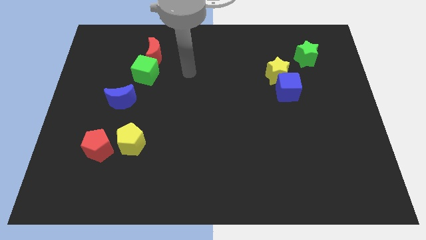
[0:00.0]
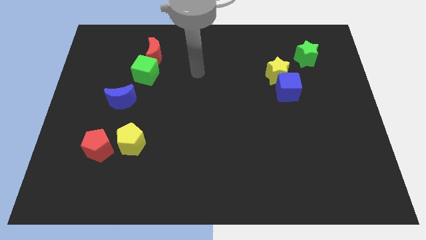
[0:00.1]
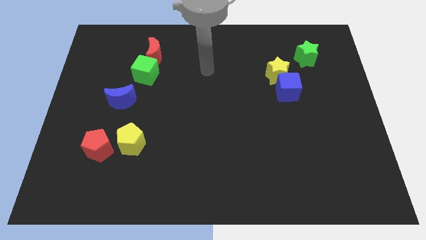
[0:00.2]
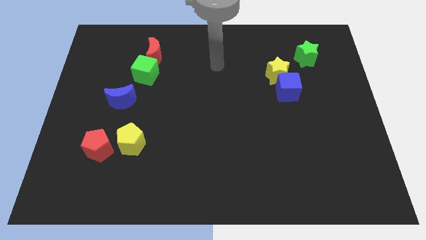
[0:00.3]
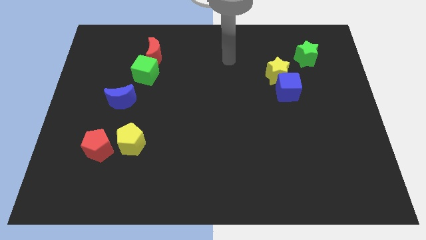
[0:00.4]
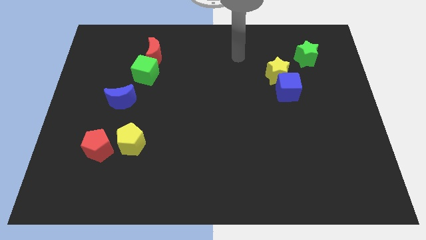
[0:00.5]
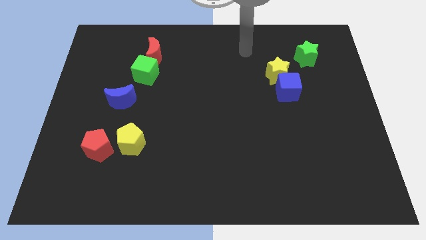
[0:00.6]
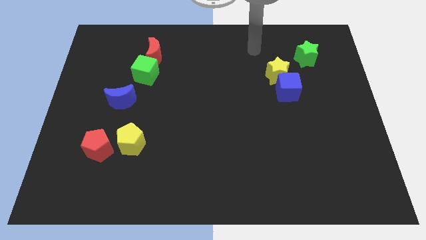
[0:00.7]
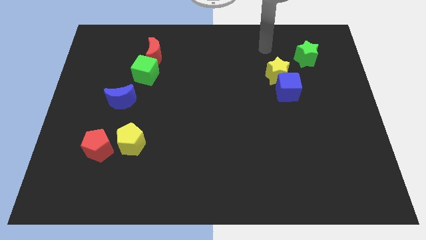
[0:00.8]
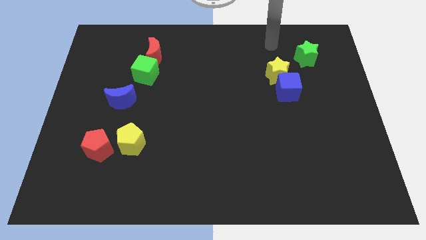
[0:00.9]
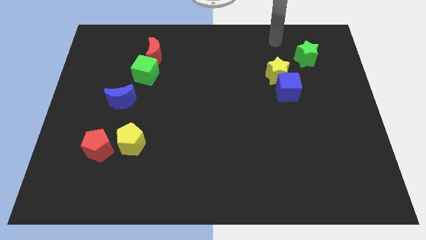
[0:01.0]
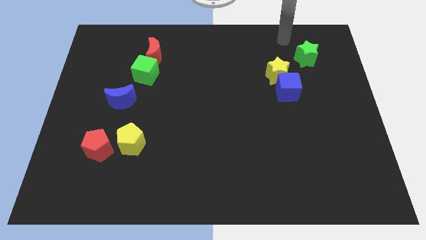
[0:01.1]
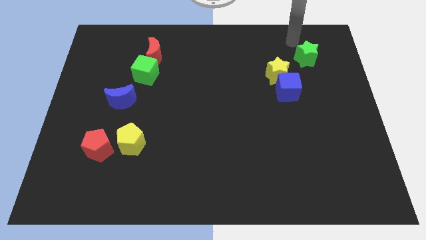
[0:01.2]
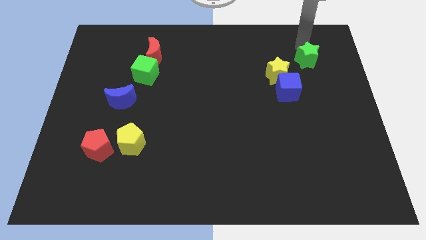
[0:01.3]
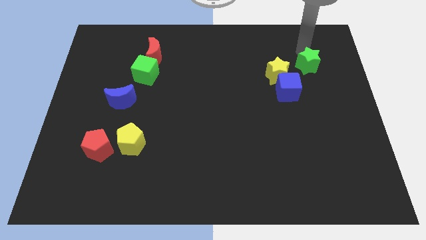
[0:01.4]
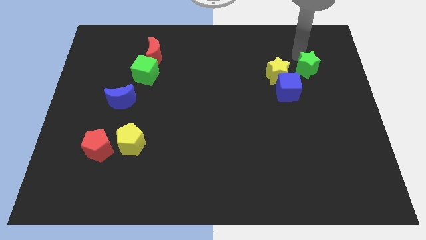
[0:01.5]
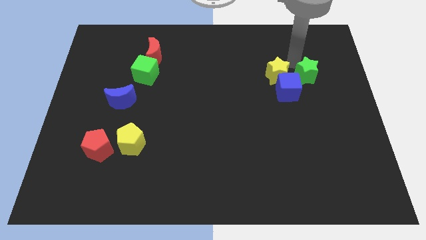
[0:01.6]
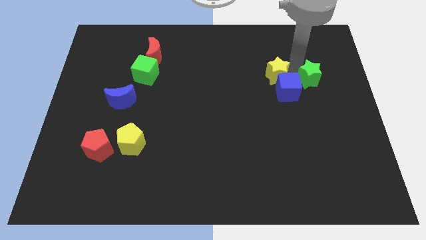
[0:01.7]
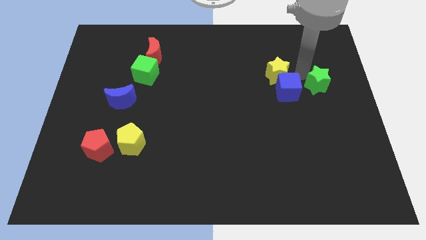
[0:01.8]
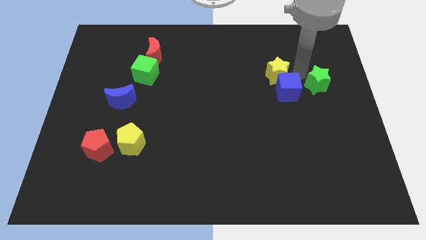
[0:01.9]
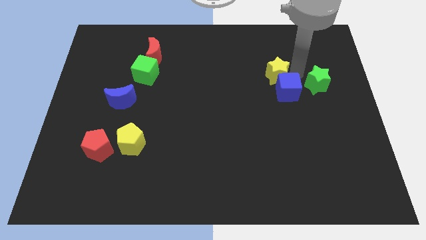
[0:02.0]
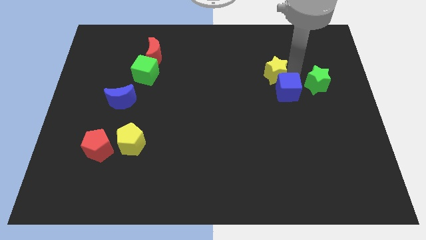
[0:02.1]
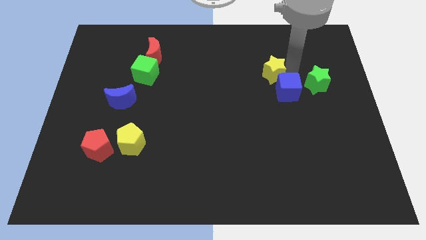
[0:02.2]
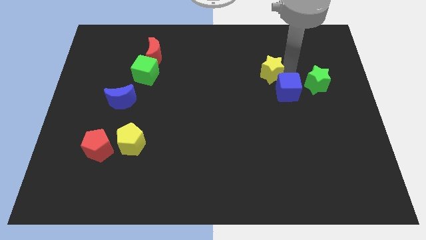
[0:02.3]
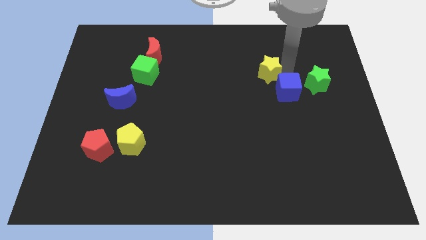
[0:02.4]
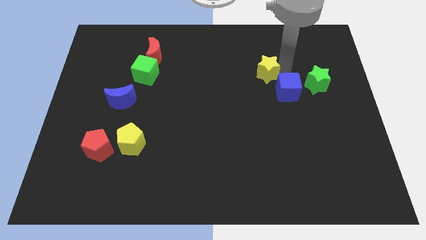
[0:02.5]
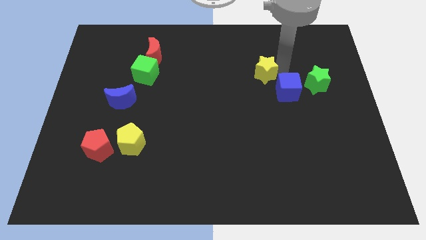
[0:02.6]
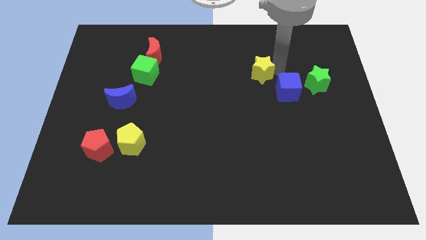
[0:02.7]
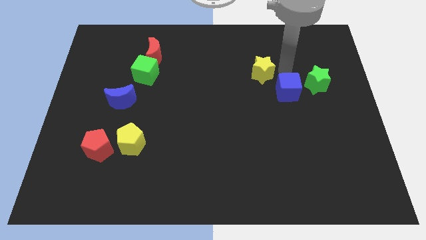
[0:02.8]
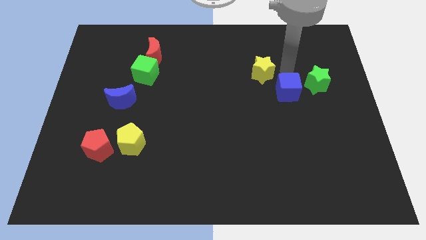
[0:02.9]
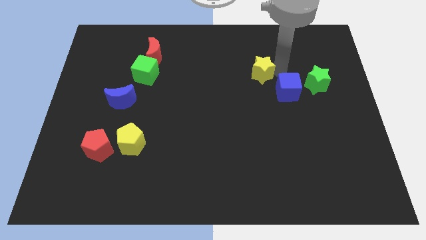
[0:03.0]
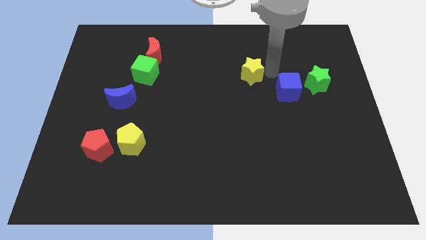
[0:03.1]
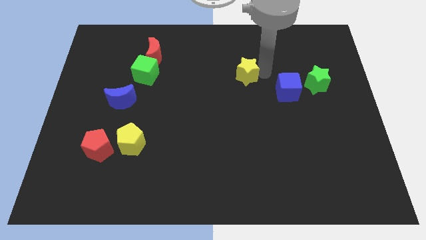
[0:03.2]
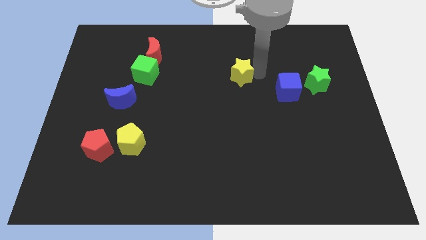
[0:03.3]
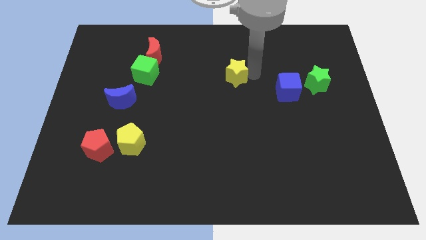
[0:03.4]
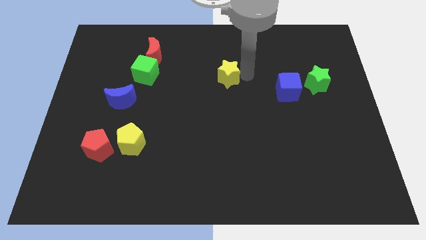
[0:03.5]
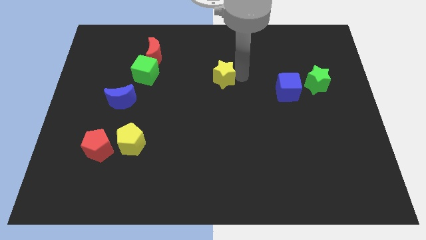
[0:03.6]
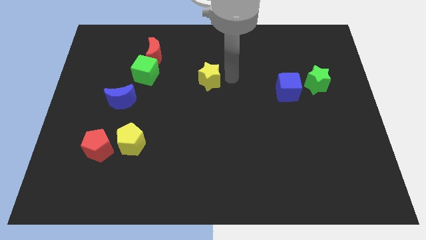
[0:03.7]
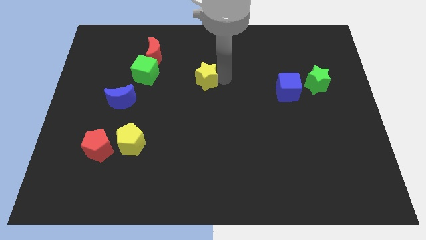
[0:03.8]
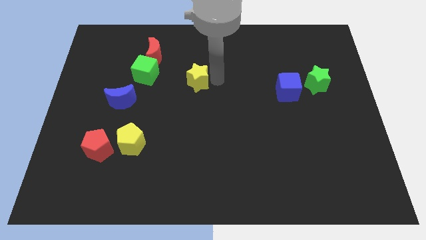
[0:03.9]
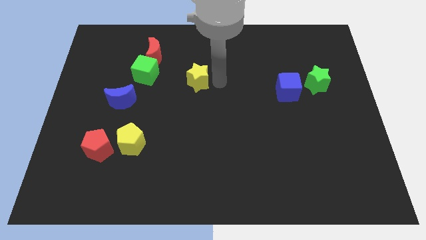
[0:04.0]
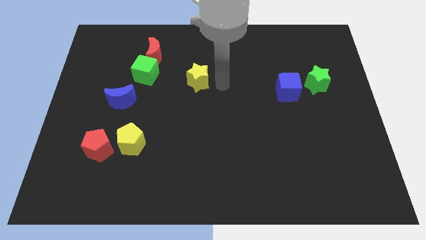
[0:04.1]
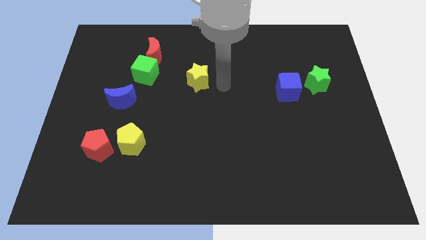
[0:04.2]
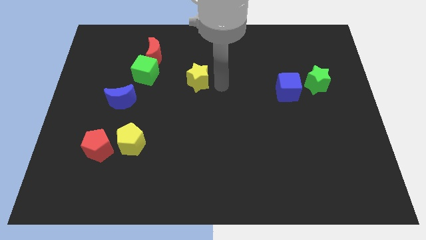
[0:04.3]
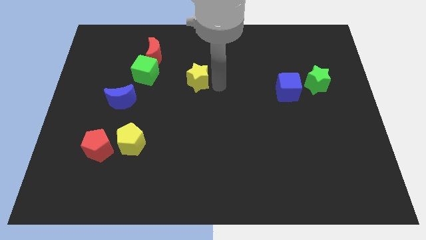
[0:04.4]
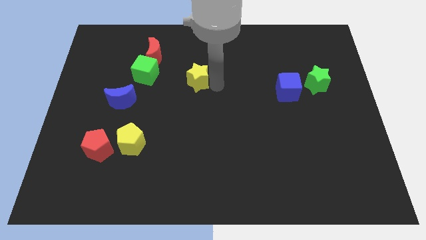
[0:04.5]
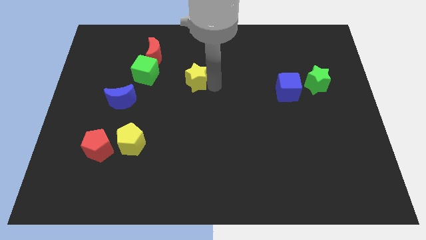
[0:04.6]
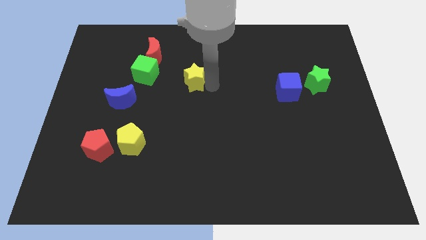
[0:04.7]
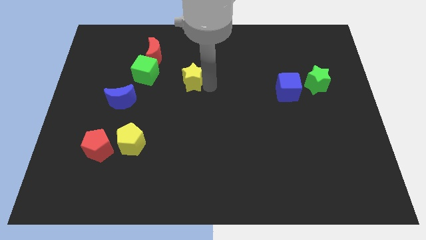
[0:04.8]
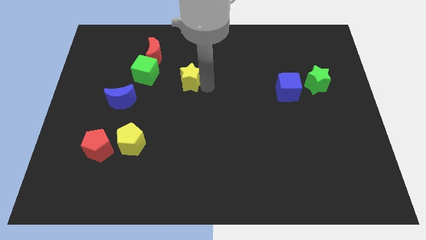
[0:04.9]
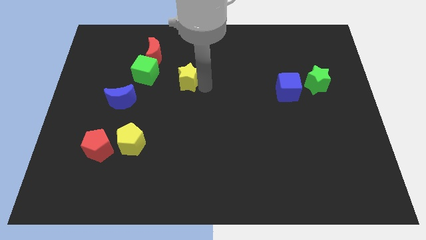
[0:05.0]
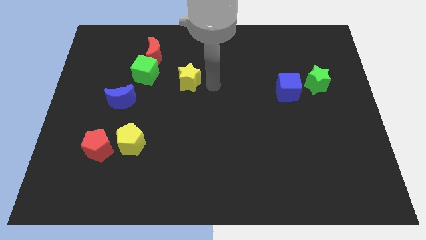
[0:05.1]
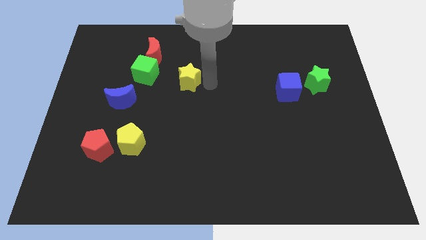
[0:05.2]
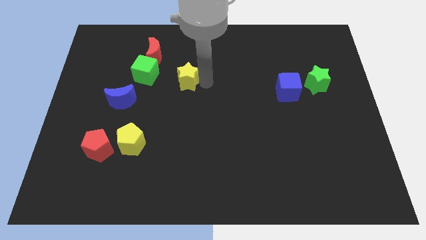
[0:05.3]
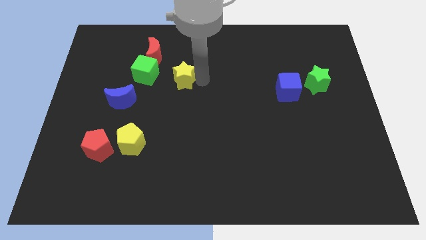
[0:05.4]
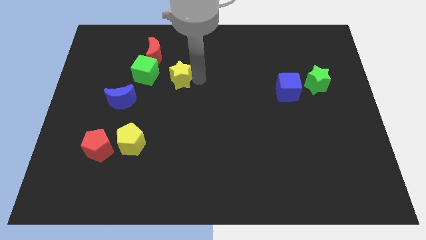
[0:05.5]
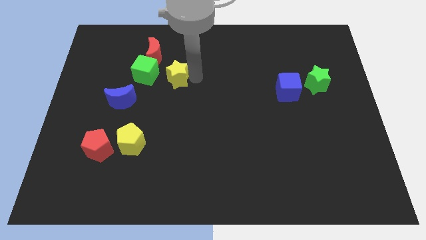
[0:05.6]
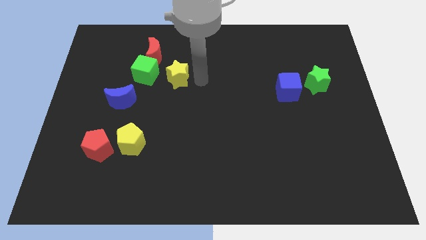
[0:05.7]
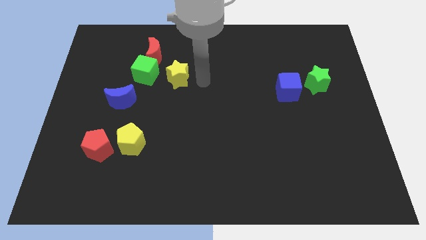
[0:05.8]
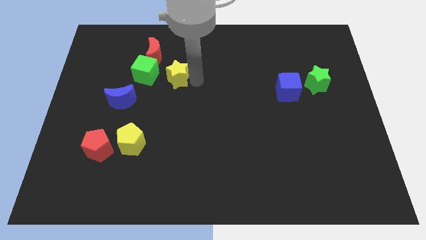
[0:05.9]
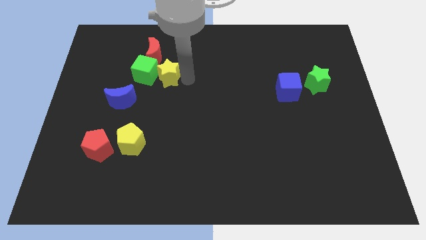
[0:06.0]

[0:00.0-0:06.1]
slide the yellow star towards the green cube

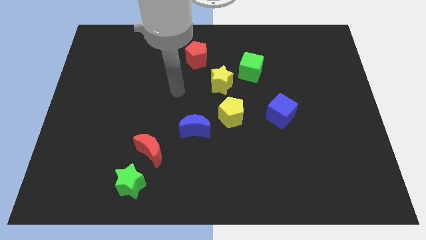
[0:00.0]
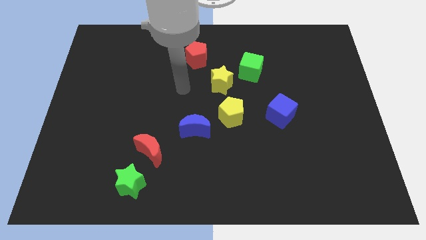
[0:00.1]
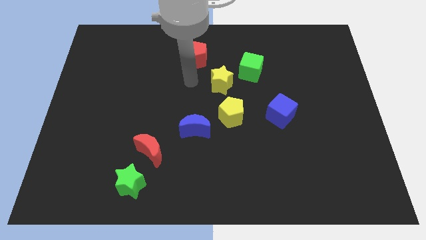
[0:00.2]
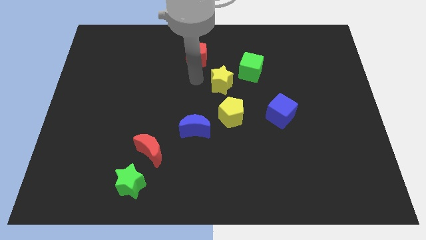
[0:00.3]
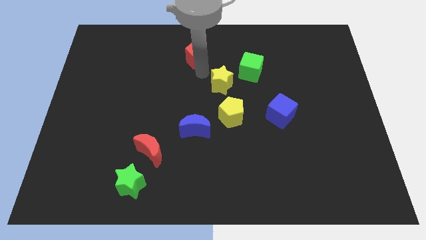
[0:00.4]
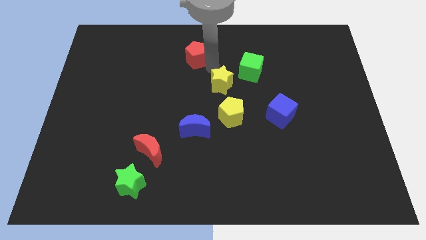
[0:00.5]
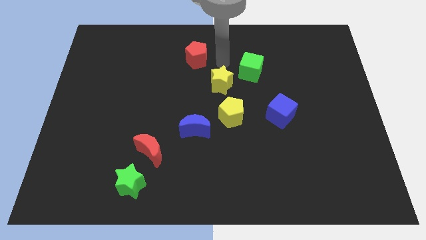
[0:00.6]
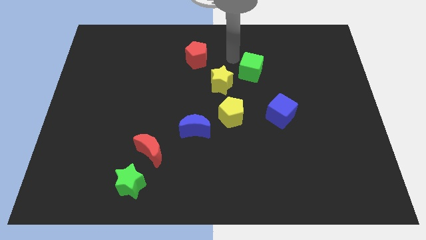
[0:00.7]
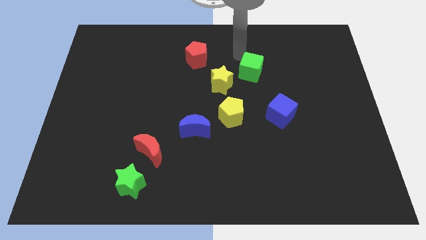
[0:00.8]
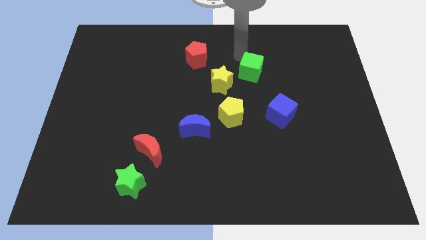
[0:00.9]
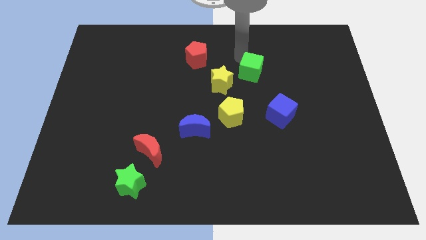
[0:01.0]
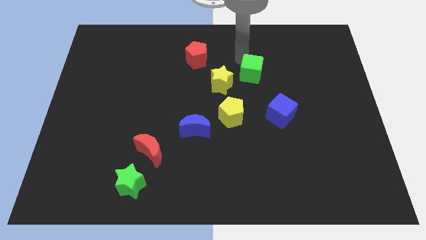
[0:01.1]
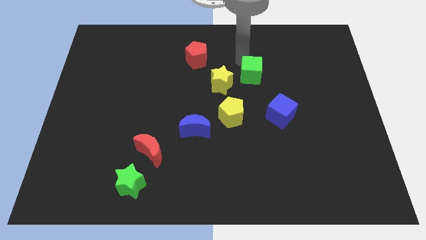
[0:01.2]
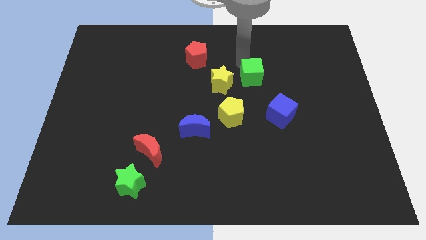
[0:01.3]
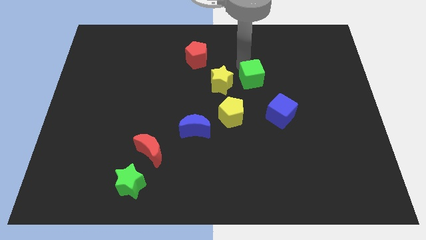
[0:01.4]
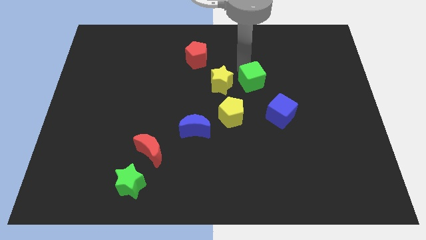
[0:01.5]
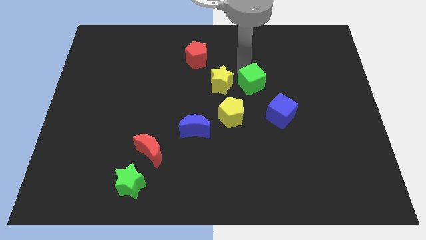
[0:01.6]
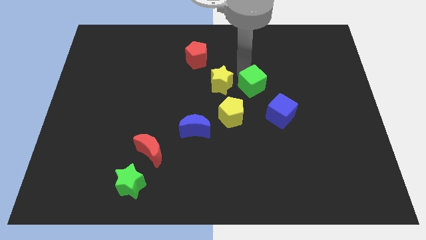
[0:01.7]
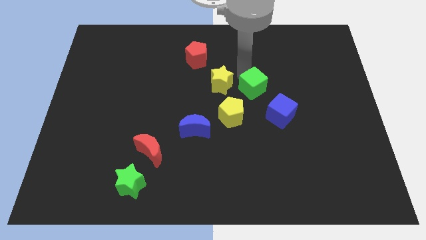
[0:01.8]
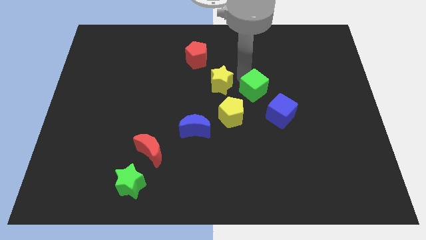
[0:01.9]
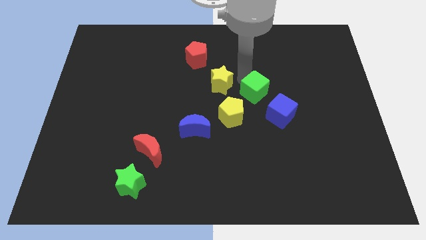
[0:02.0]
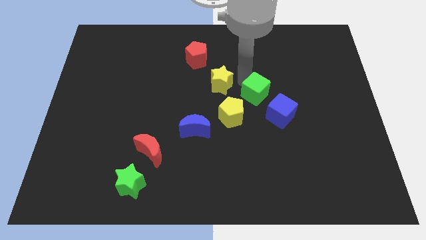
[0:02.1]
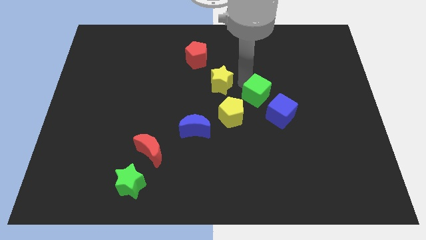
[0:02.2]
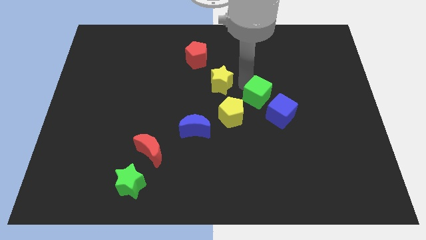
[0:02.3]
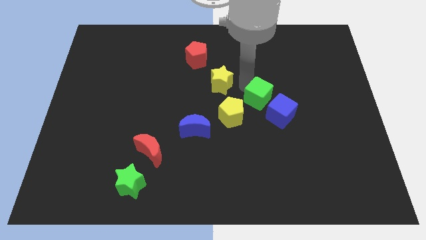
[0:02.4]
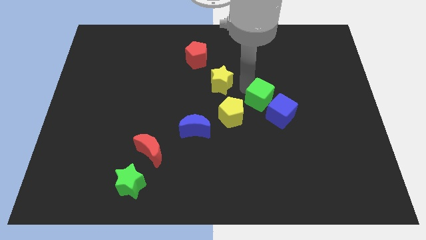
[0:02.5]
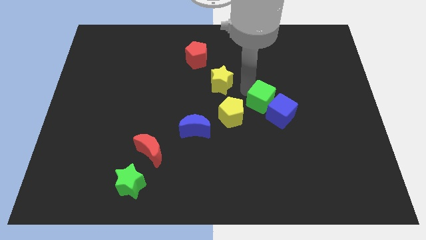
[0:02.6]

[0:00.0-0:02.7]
put the green cube close to the blue cube
